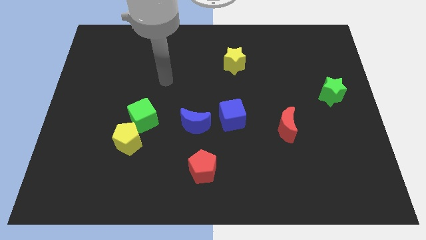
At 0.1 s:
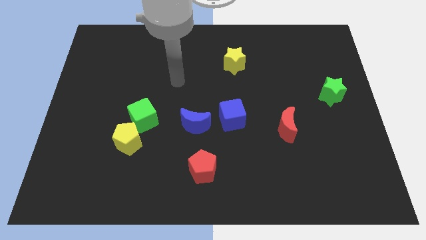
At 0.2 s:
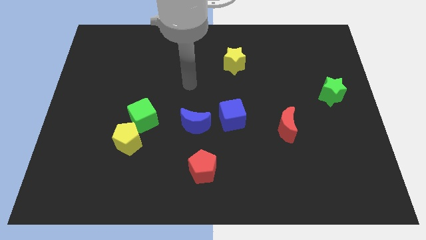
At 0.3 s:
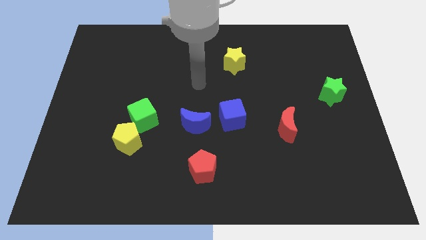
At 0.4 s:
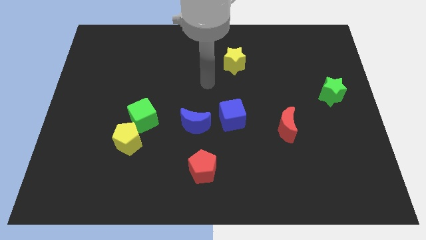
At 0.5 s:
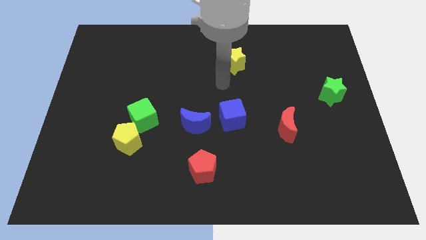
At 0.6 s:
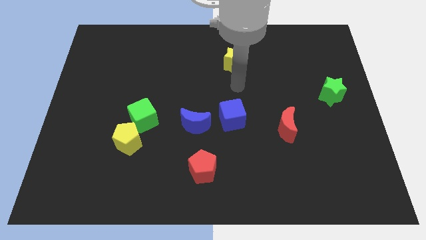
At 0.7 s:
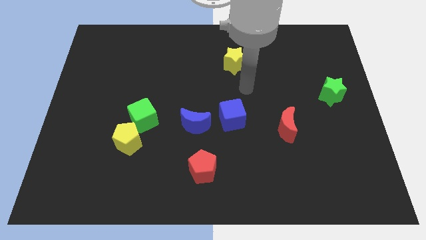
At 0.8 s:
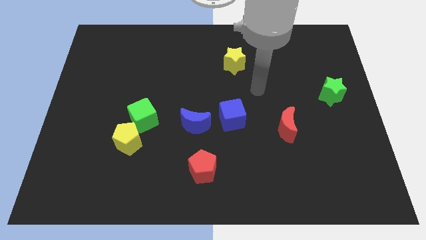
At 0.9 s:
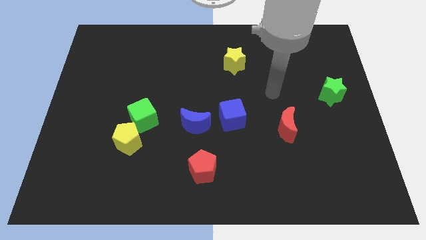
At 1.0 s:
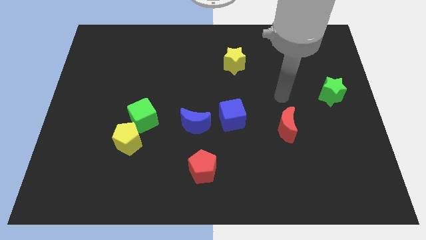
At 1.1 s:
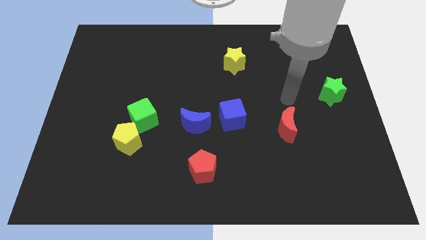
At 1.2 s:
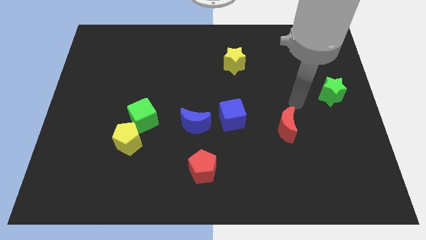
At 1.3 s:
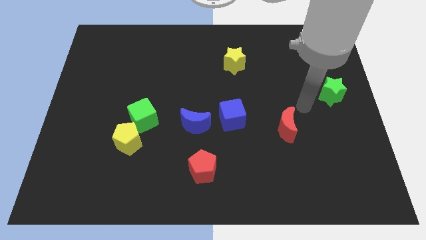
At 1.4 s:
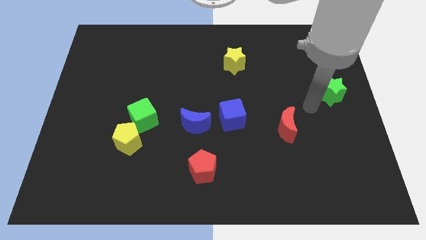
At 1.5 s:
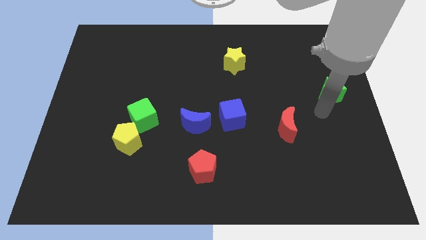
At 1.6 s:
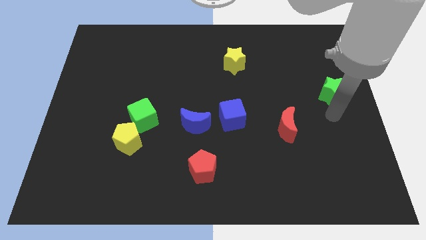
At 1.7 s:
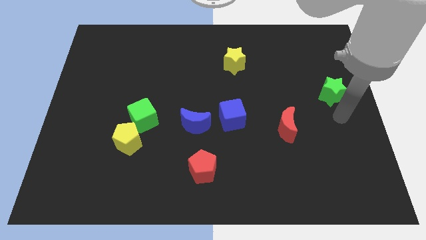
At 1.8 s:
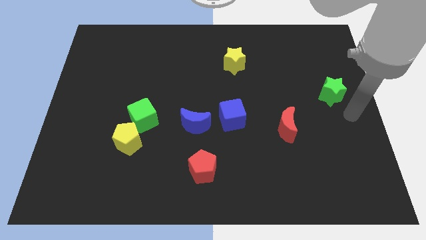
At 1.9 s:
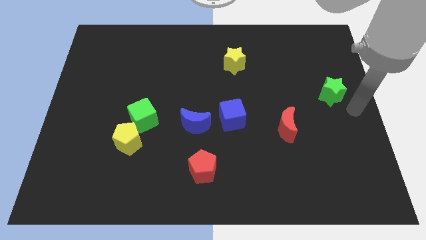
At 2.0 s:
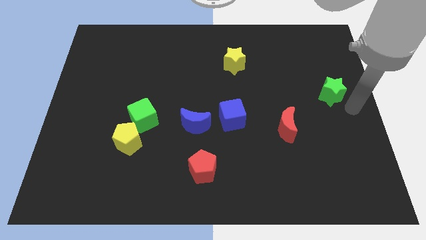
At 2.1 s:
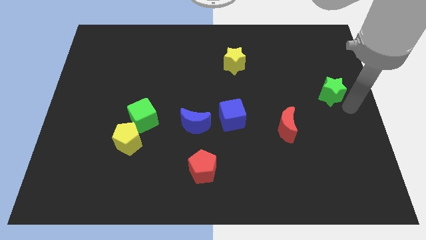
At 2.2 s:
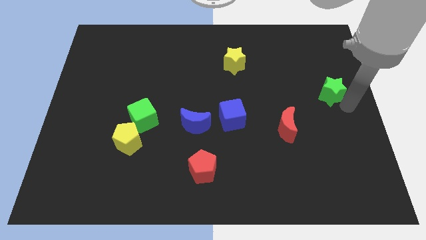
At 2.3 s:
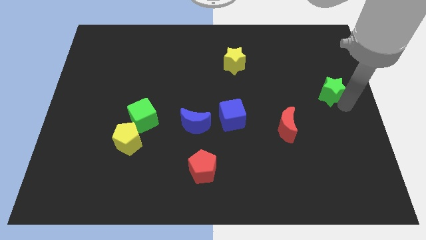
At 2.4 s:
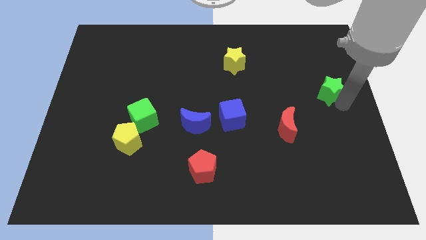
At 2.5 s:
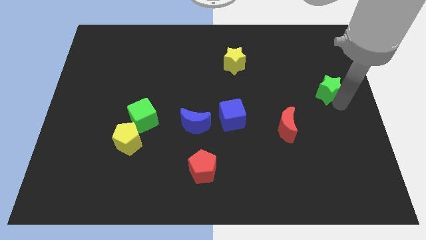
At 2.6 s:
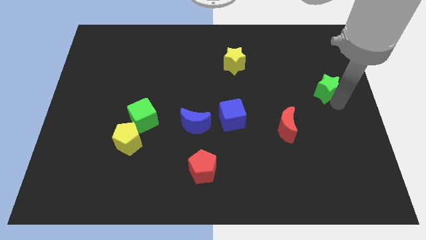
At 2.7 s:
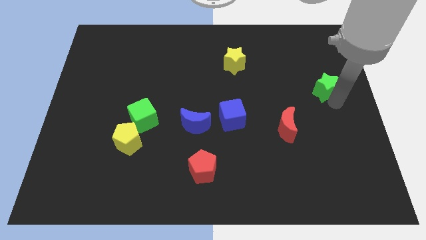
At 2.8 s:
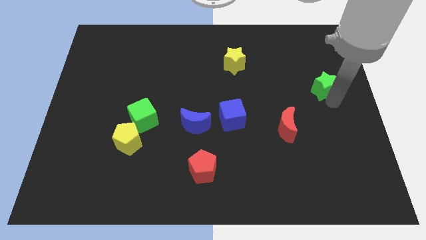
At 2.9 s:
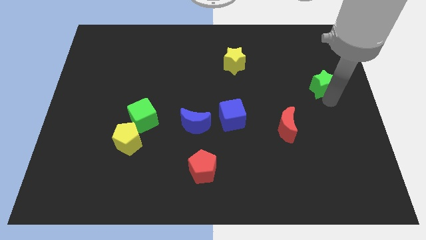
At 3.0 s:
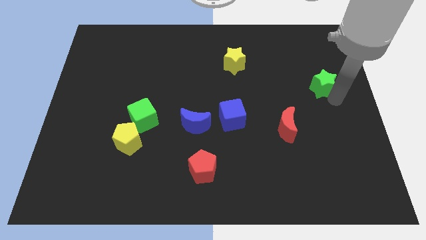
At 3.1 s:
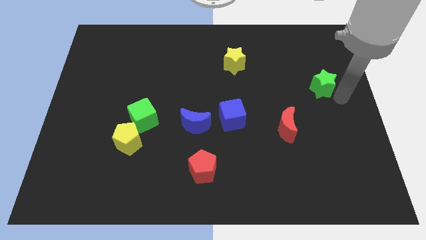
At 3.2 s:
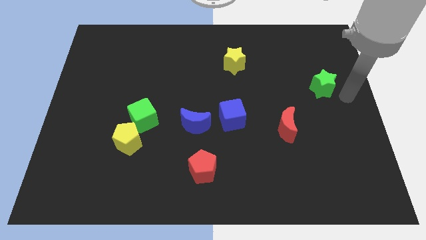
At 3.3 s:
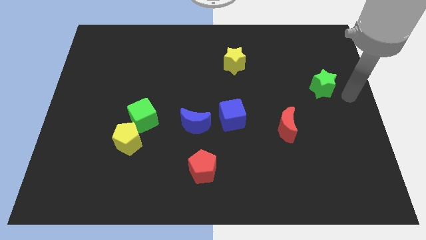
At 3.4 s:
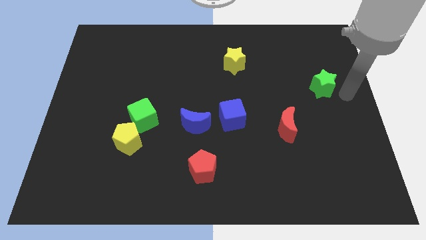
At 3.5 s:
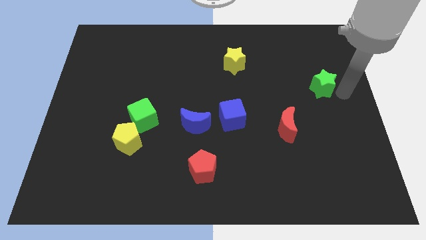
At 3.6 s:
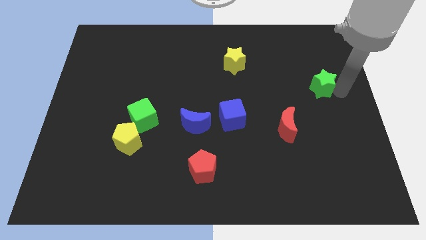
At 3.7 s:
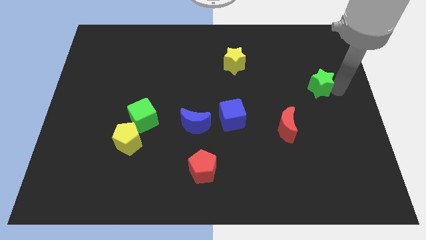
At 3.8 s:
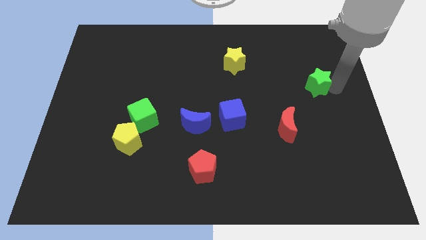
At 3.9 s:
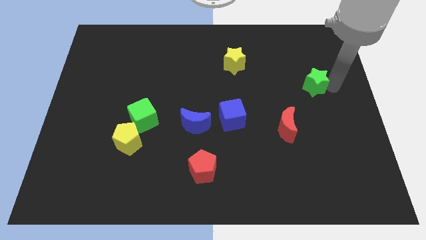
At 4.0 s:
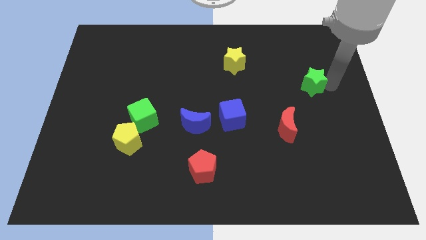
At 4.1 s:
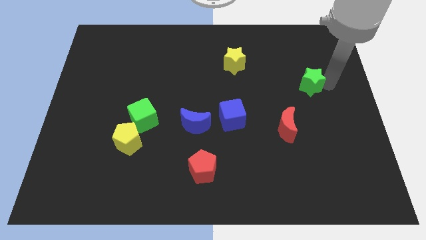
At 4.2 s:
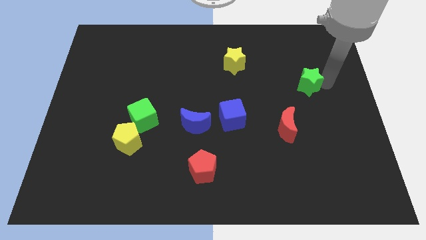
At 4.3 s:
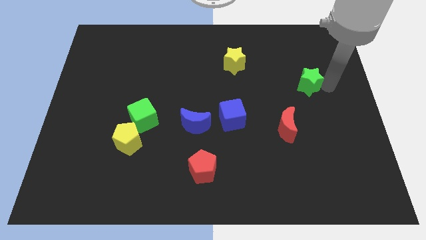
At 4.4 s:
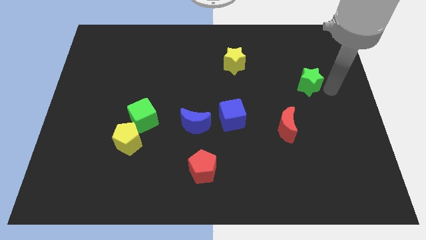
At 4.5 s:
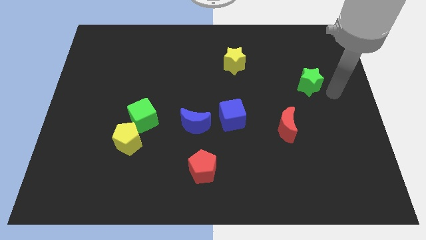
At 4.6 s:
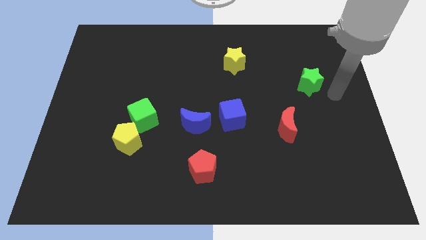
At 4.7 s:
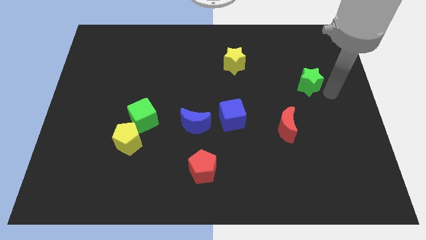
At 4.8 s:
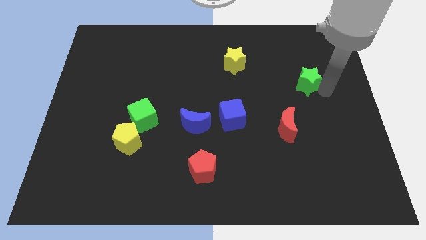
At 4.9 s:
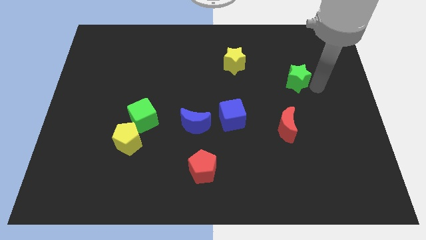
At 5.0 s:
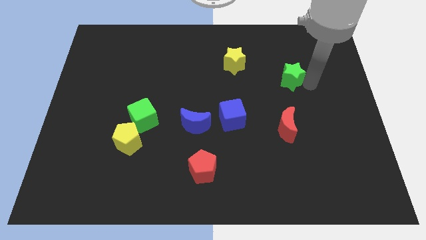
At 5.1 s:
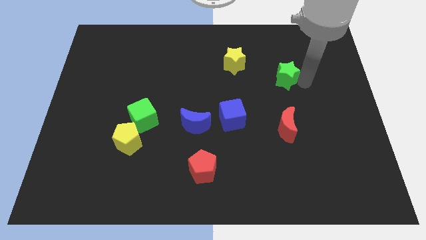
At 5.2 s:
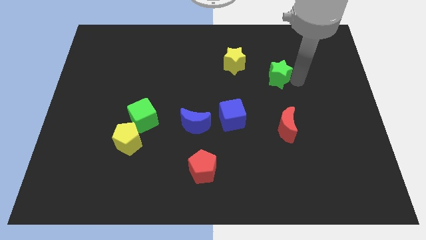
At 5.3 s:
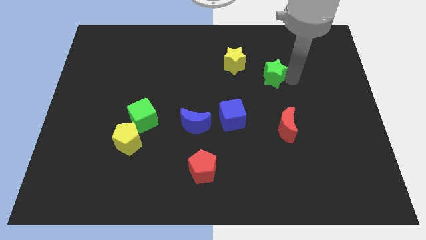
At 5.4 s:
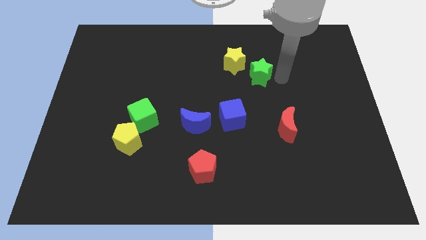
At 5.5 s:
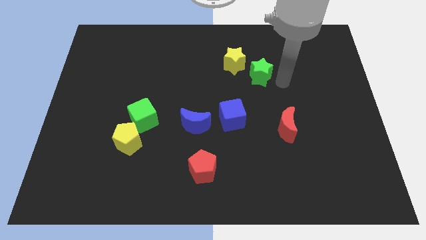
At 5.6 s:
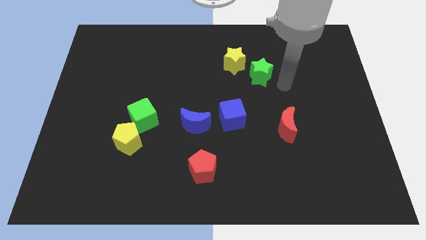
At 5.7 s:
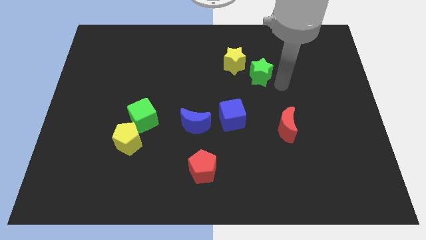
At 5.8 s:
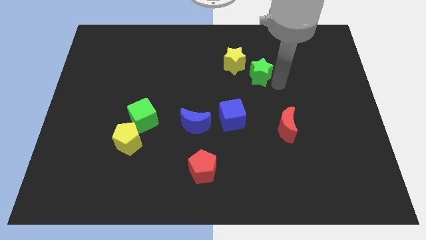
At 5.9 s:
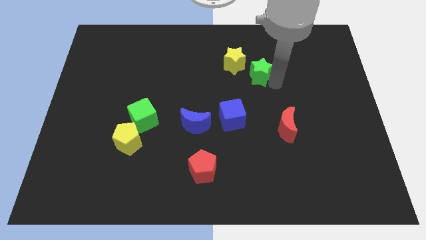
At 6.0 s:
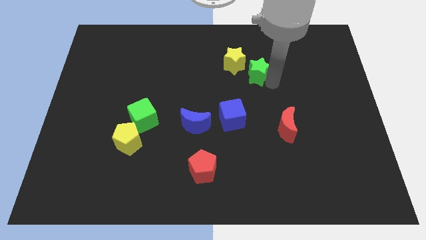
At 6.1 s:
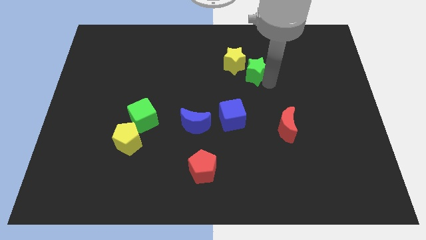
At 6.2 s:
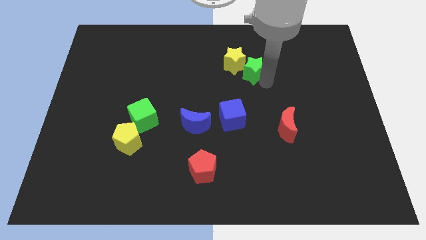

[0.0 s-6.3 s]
move the green star to the yellow star
